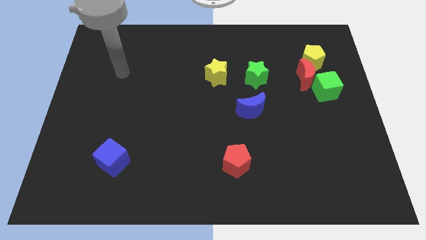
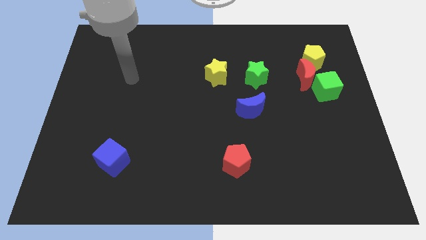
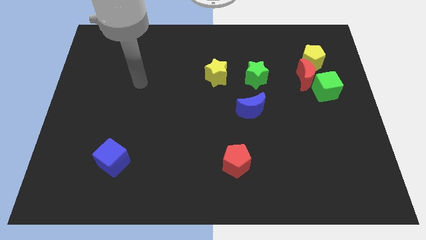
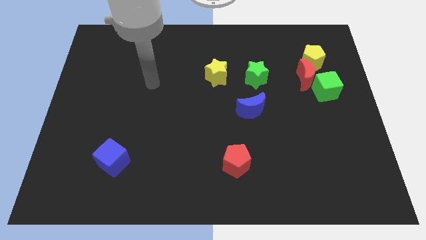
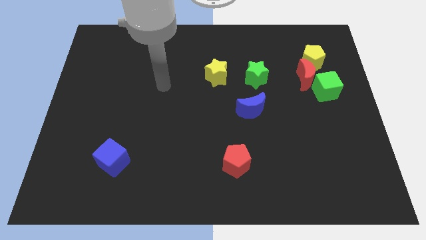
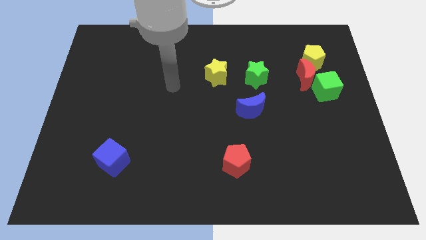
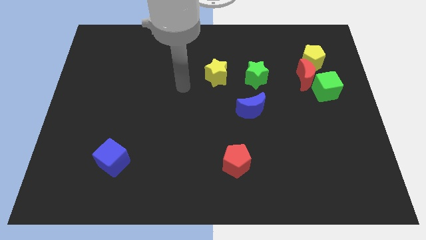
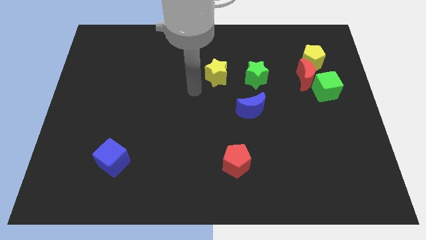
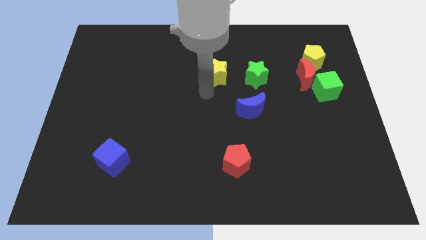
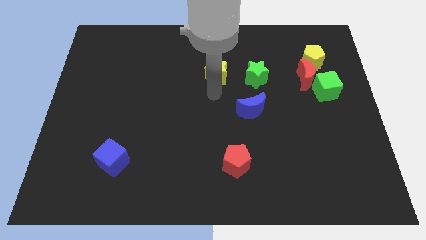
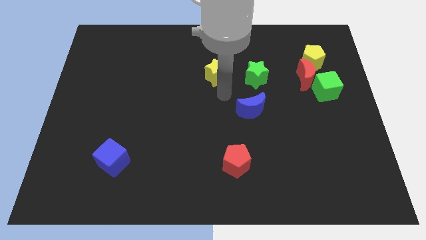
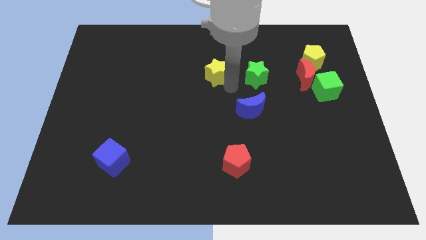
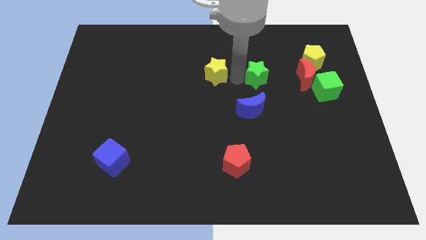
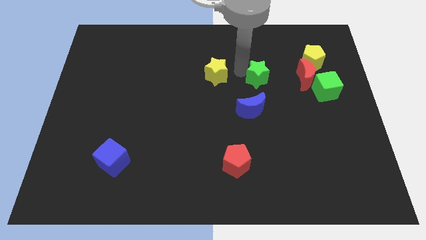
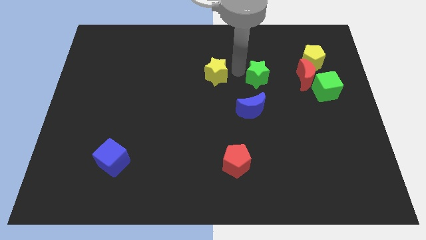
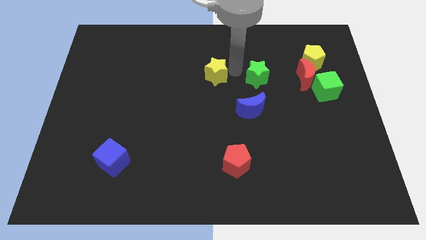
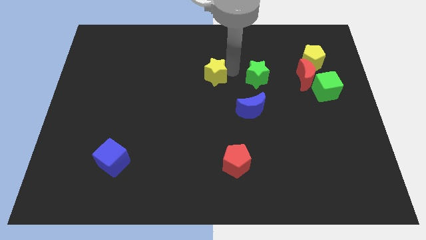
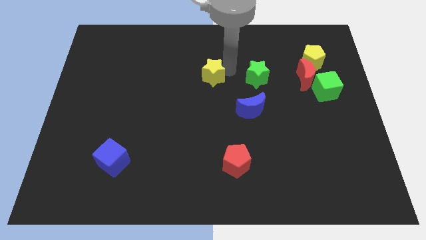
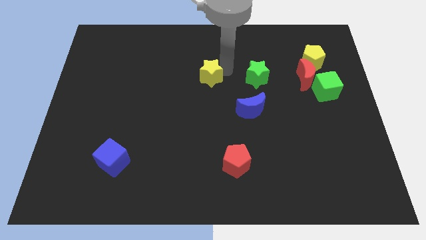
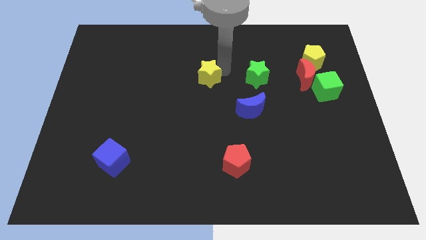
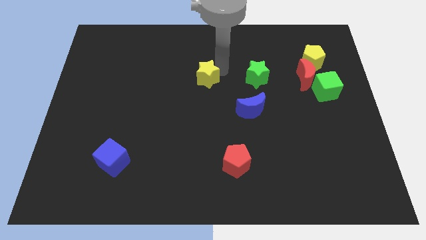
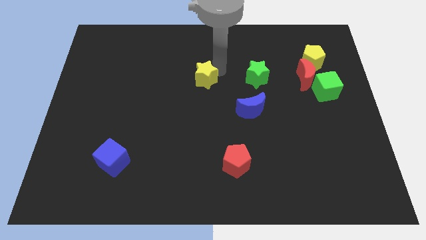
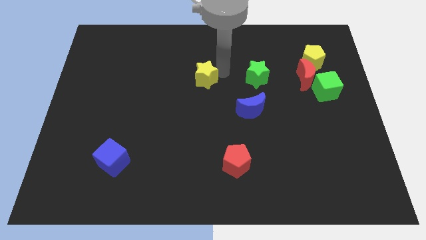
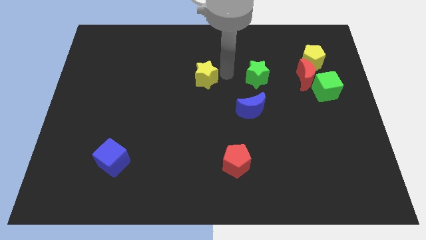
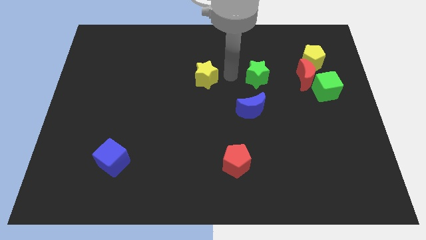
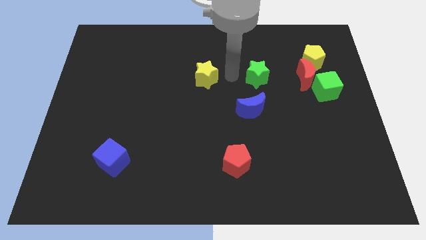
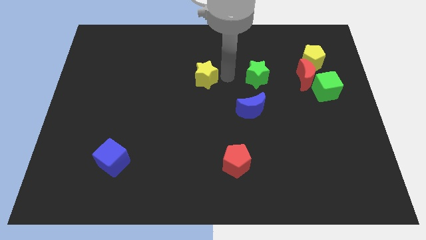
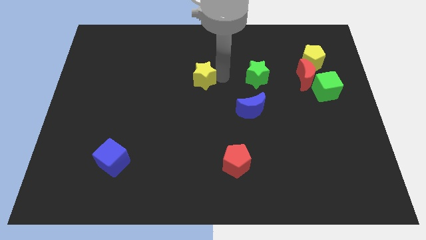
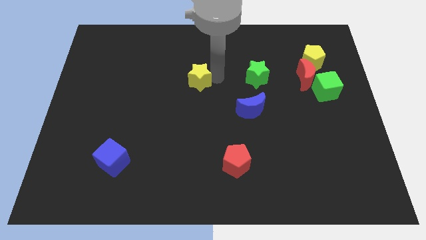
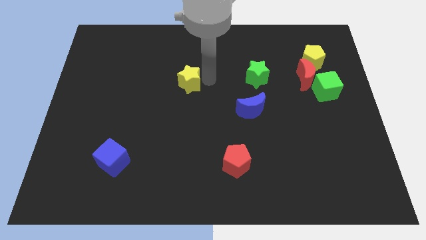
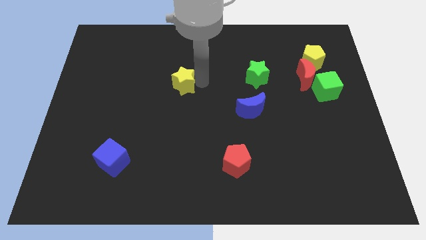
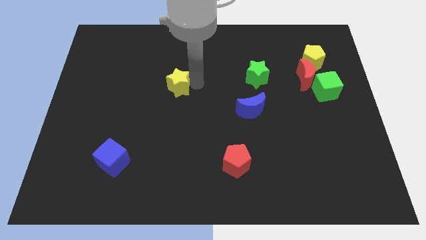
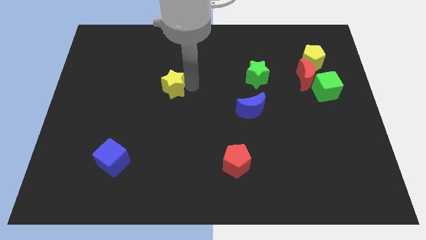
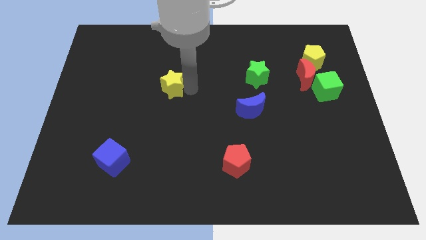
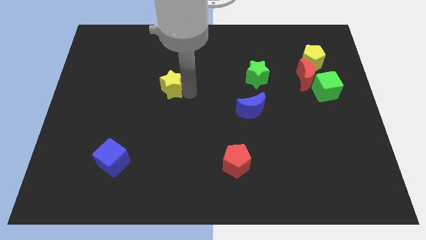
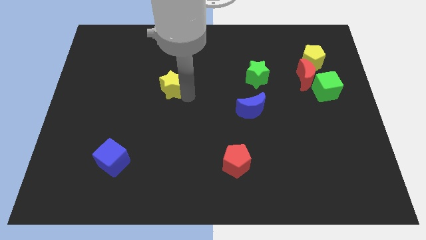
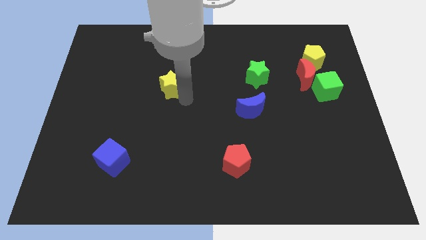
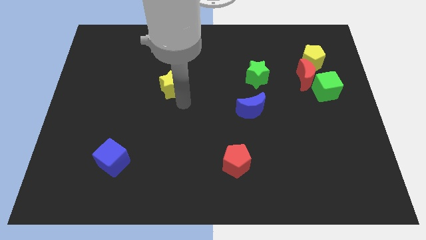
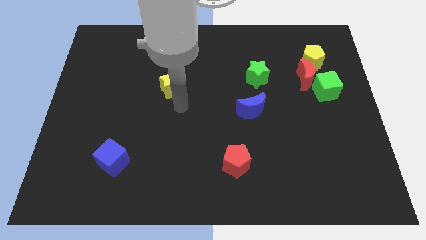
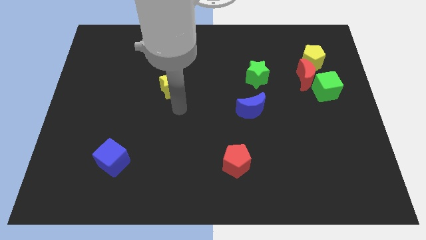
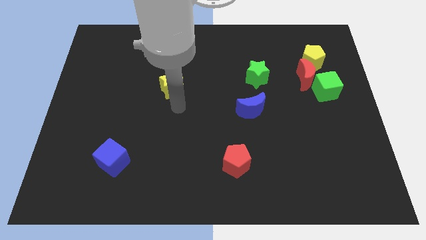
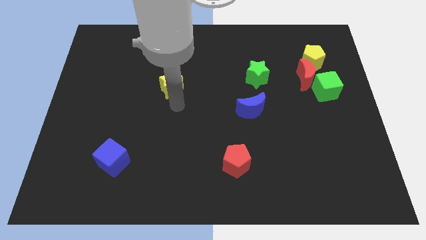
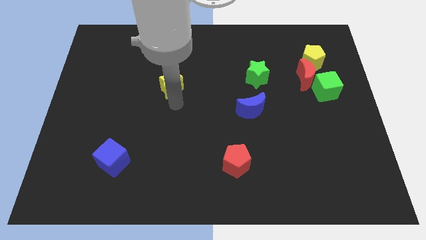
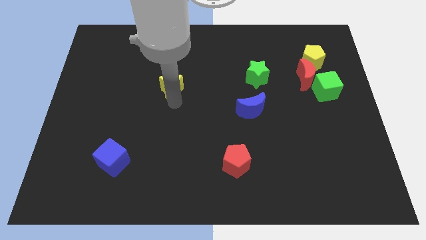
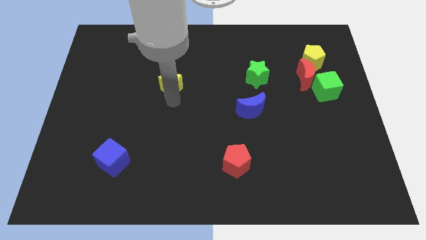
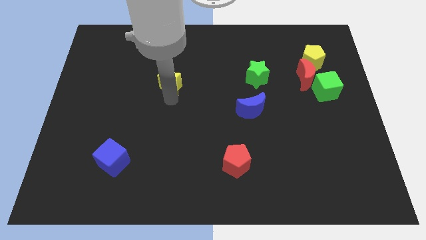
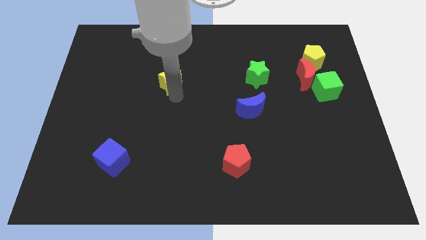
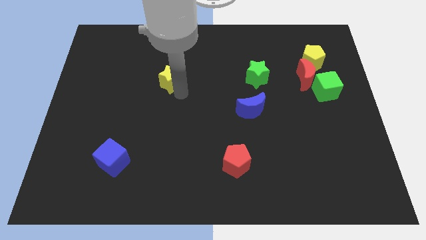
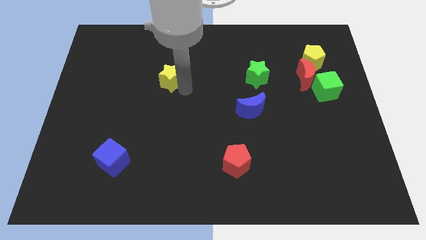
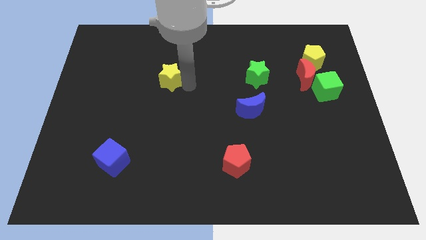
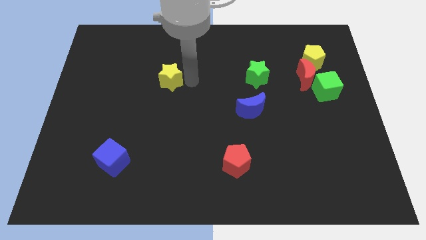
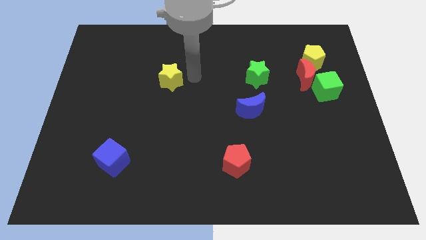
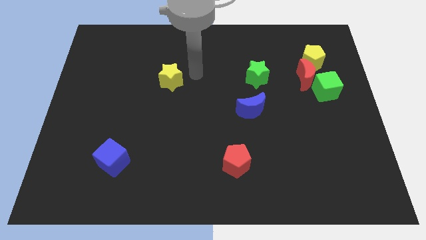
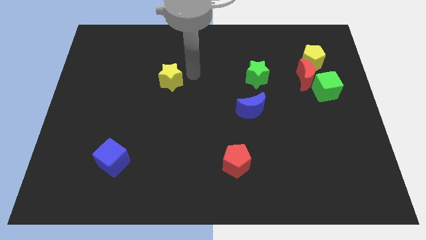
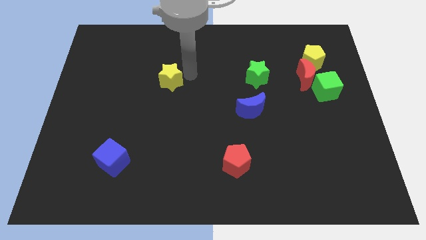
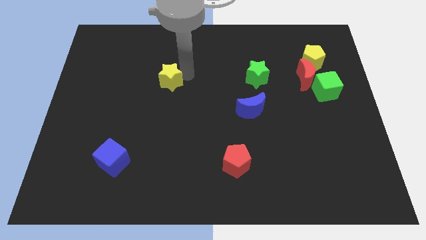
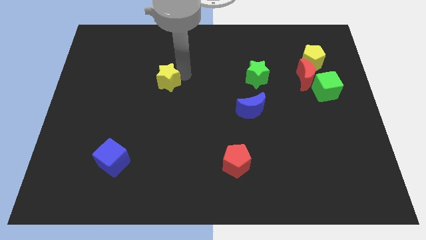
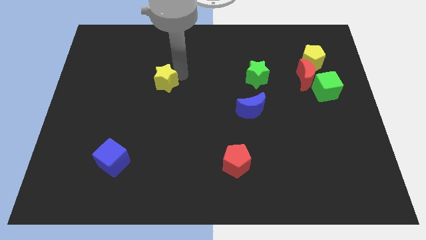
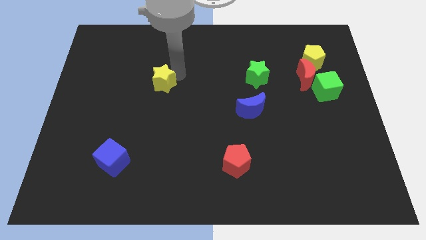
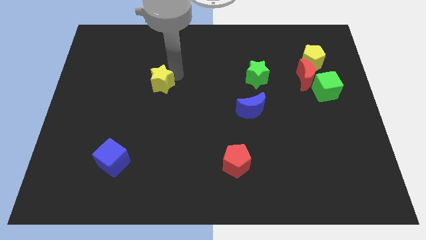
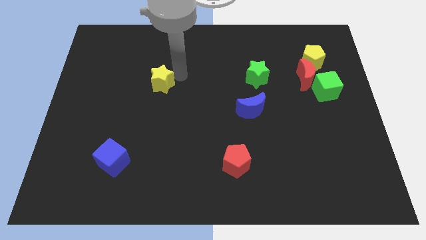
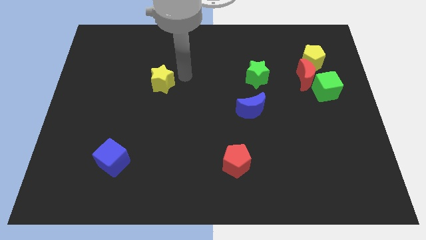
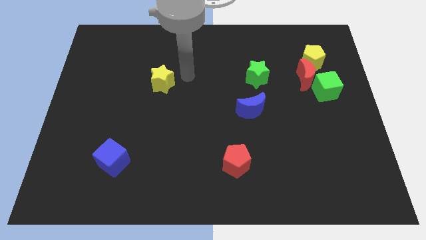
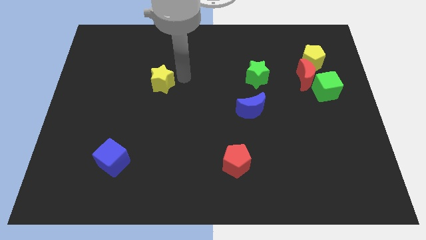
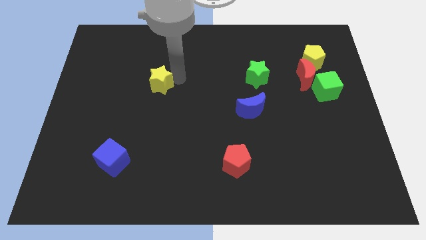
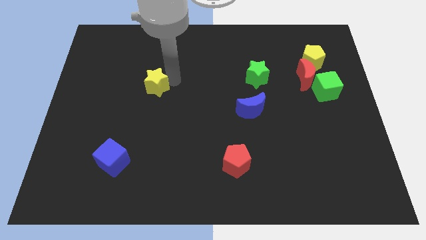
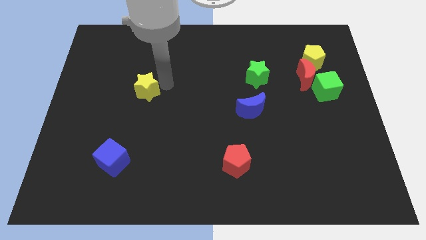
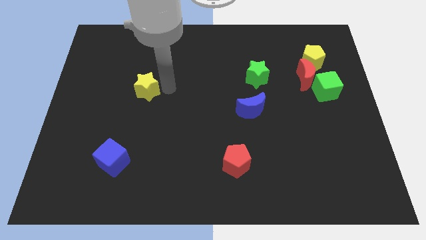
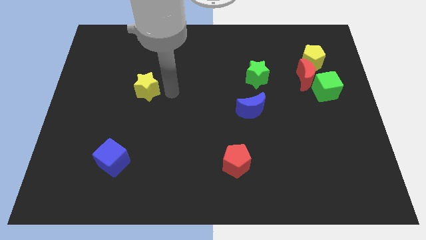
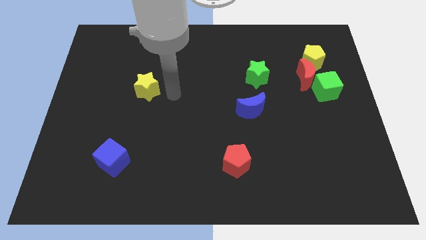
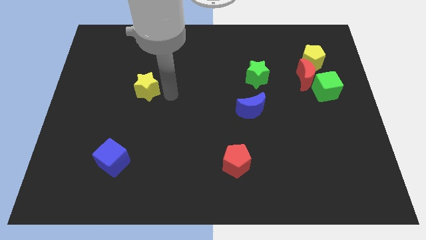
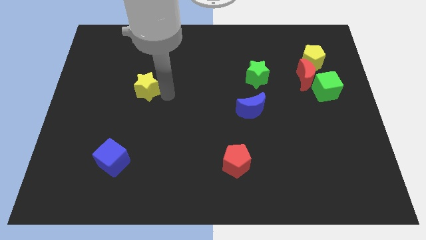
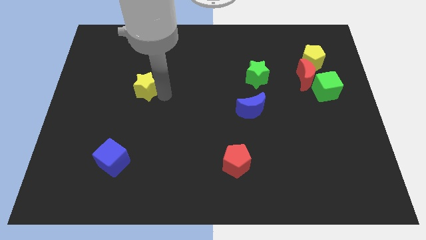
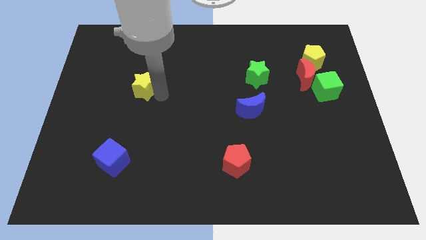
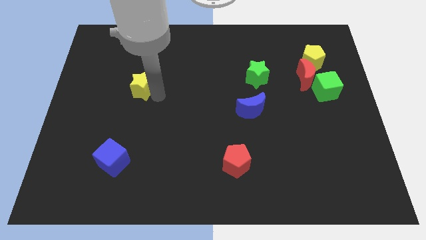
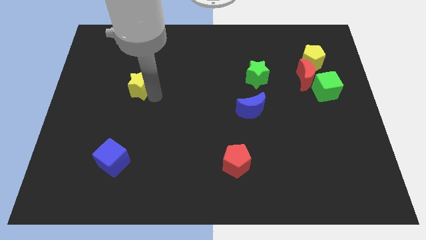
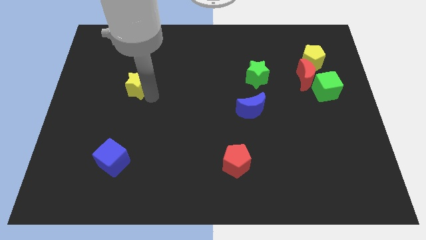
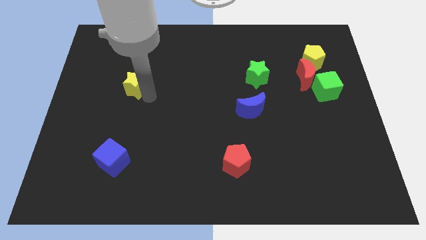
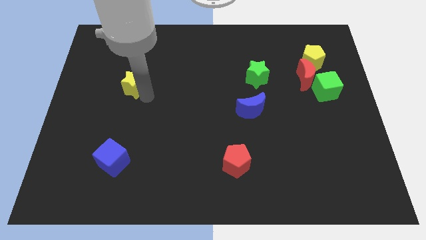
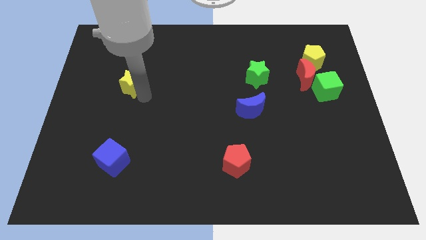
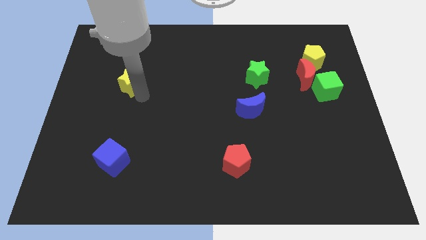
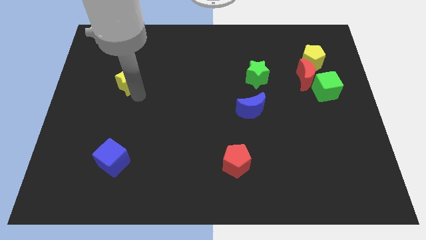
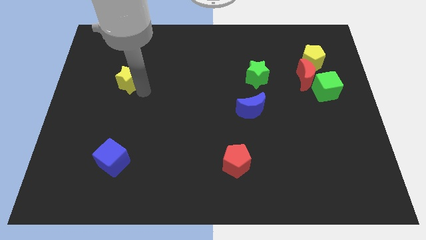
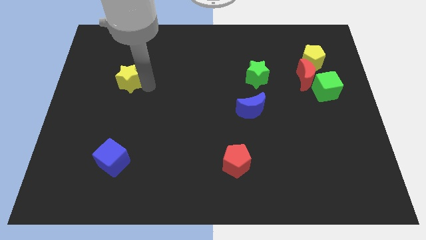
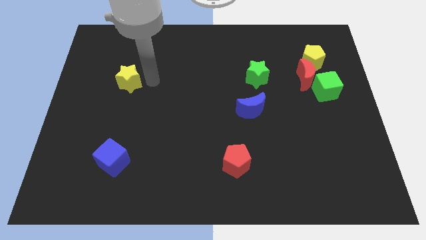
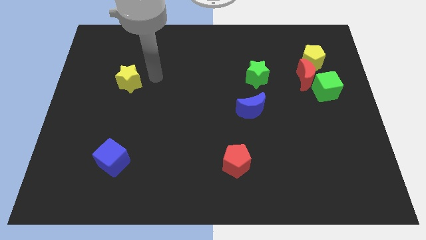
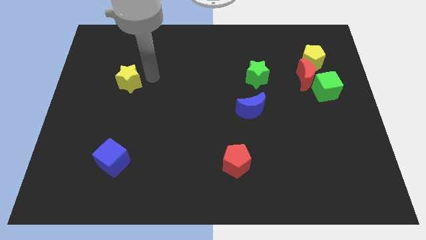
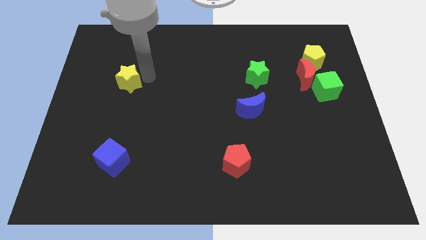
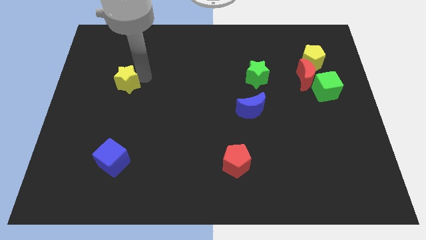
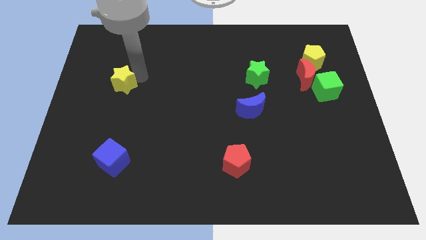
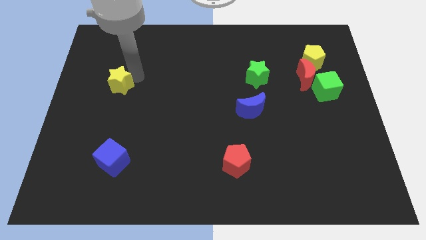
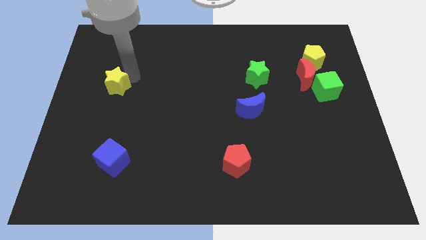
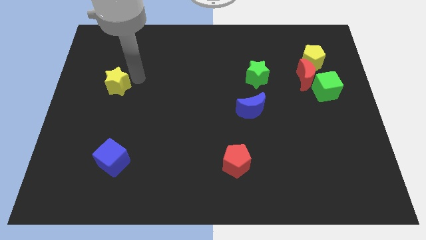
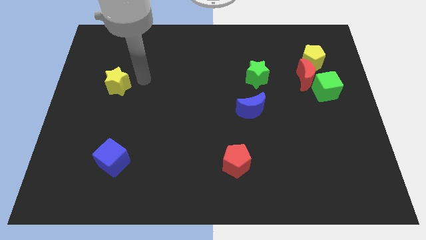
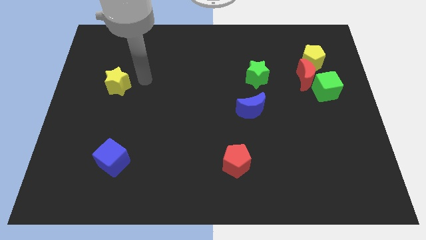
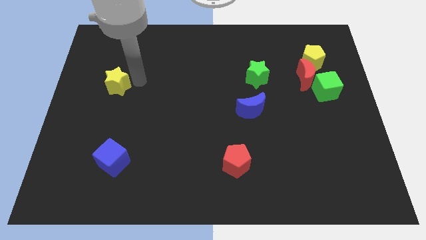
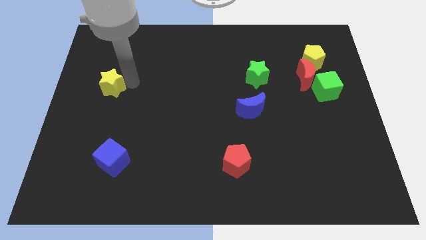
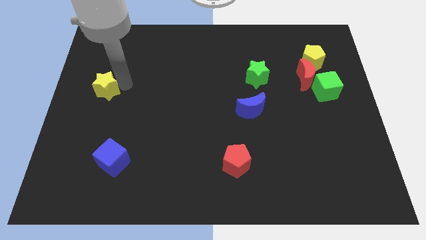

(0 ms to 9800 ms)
slide the yellow star to the center left
